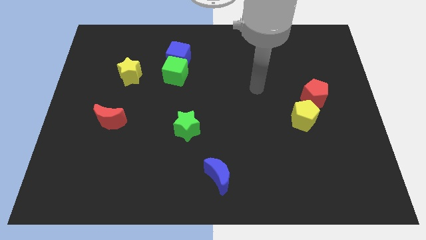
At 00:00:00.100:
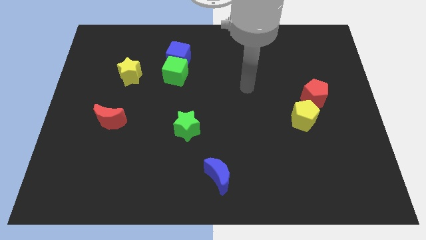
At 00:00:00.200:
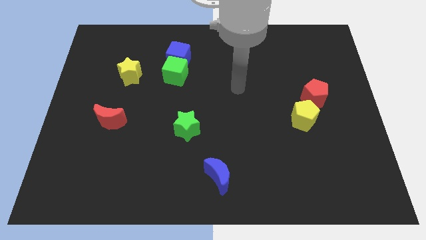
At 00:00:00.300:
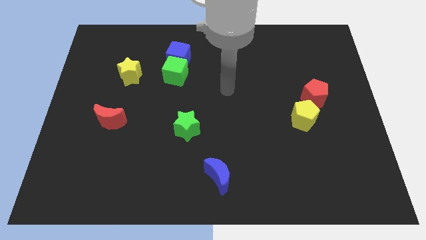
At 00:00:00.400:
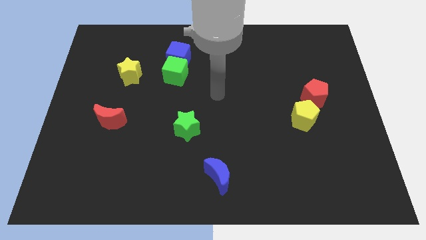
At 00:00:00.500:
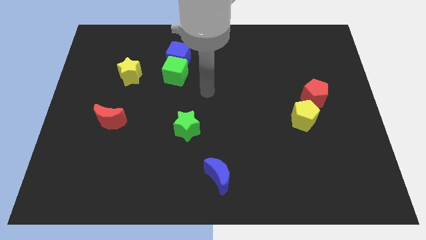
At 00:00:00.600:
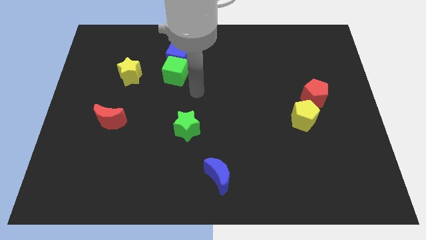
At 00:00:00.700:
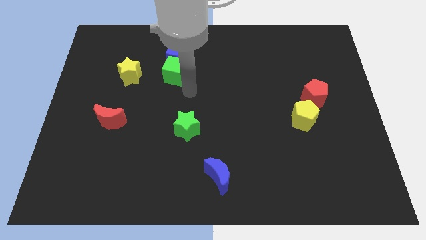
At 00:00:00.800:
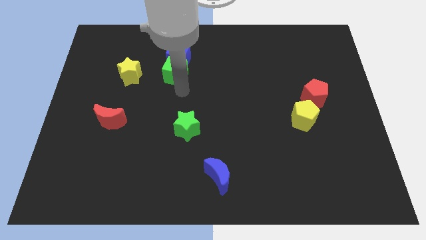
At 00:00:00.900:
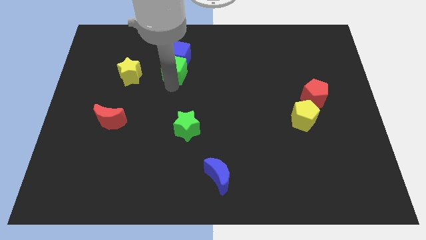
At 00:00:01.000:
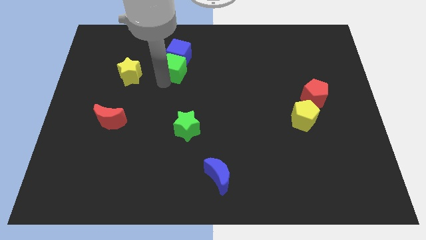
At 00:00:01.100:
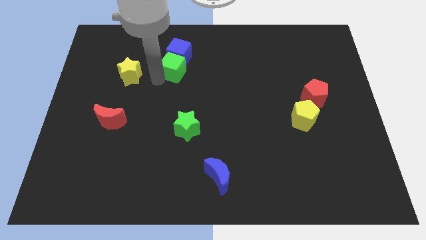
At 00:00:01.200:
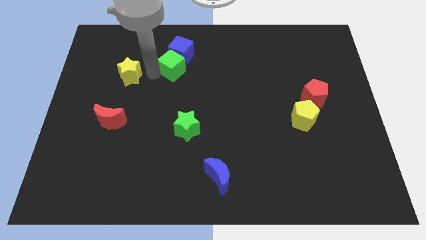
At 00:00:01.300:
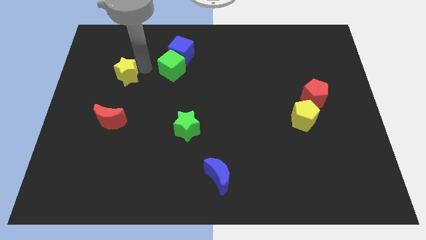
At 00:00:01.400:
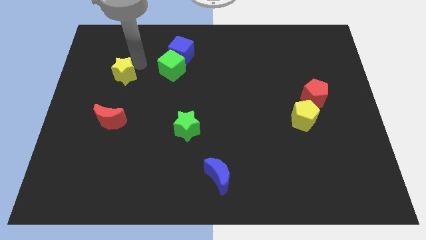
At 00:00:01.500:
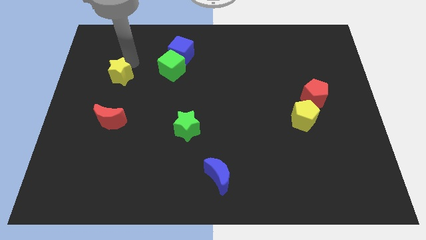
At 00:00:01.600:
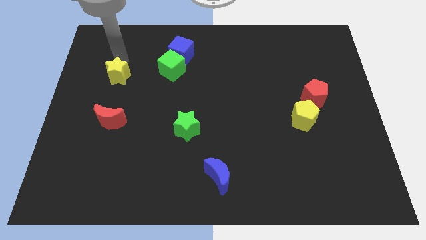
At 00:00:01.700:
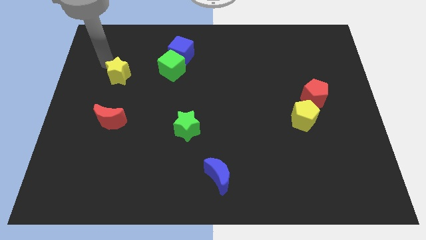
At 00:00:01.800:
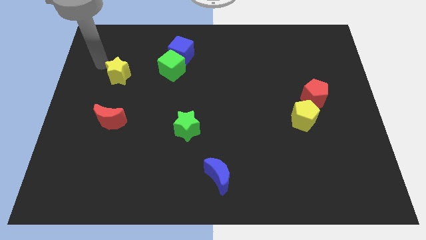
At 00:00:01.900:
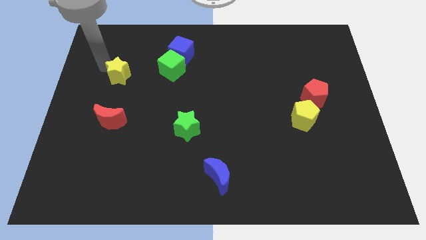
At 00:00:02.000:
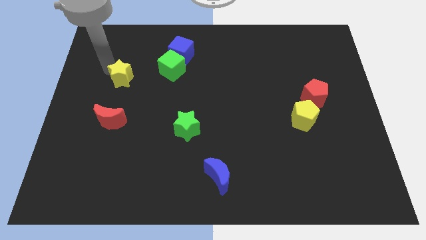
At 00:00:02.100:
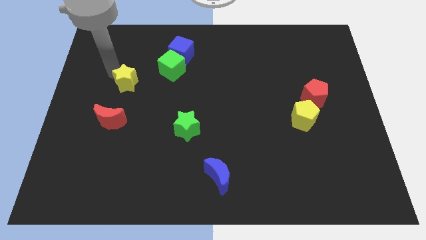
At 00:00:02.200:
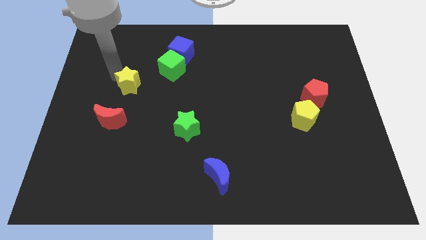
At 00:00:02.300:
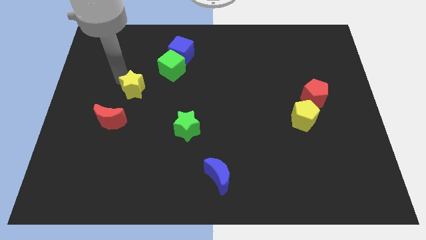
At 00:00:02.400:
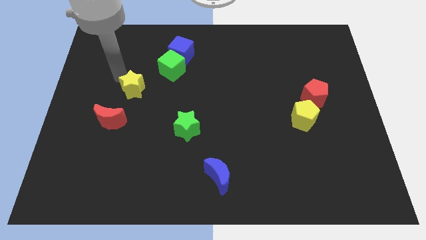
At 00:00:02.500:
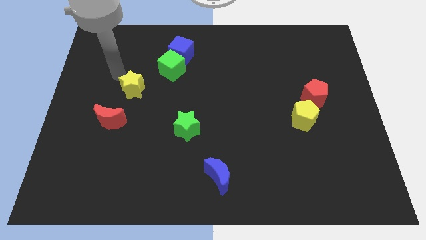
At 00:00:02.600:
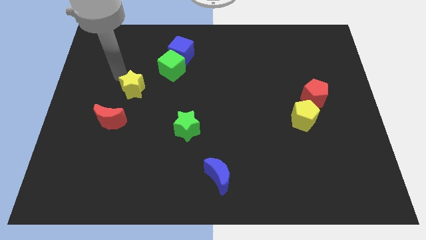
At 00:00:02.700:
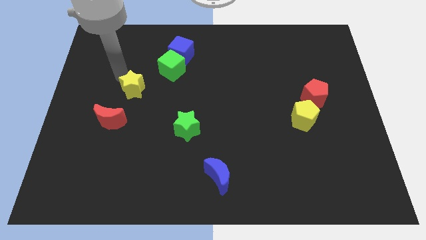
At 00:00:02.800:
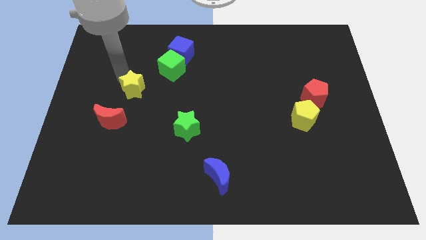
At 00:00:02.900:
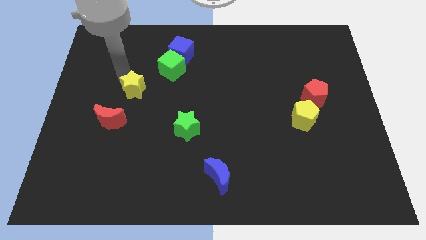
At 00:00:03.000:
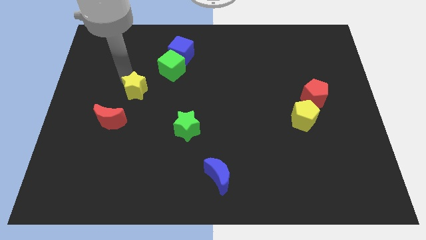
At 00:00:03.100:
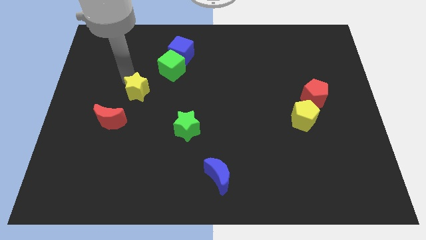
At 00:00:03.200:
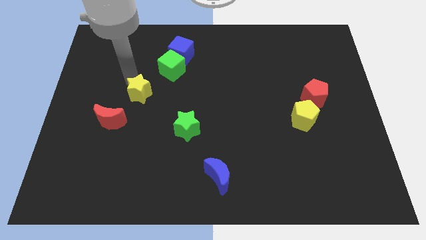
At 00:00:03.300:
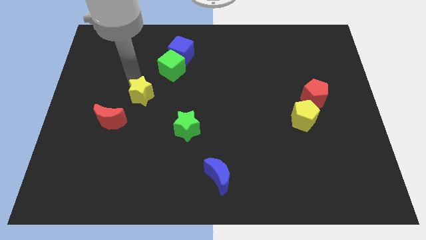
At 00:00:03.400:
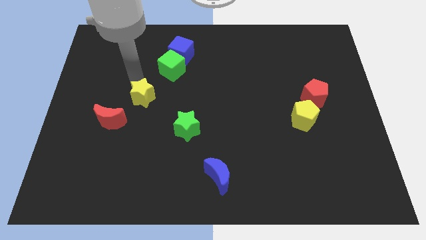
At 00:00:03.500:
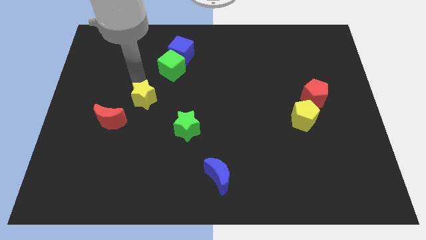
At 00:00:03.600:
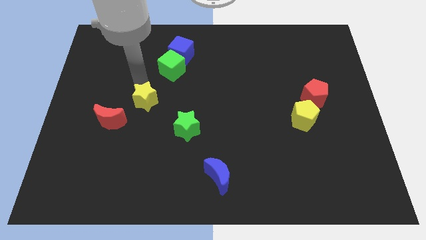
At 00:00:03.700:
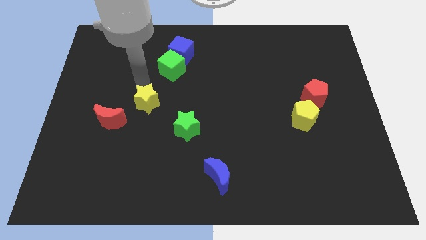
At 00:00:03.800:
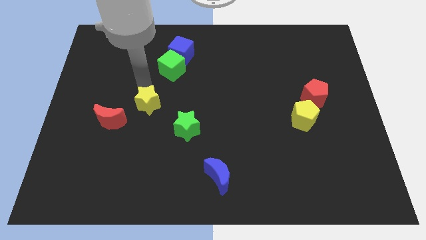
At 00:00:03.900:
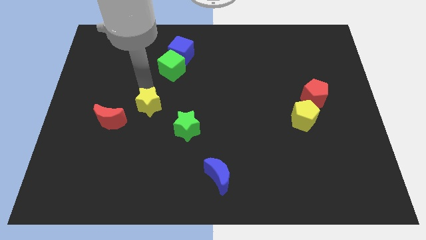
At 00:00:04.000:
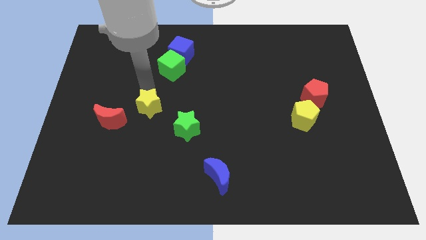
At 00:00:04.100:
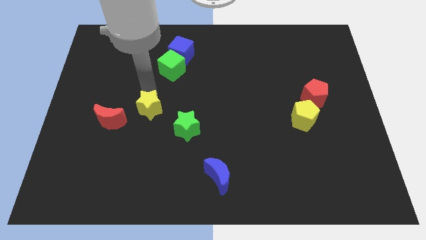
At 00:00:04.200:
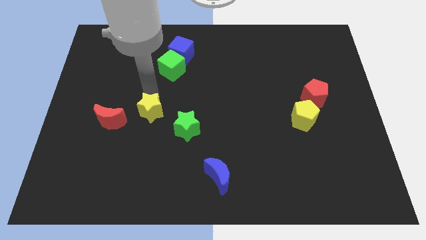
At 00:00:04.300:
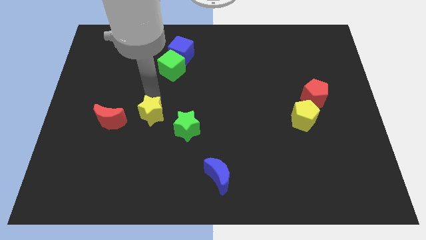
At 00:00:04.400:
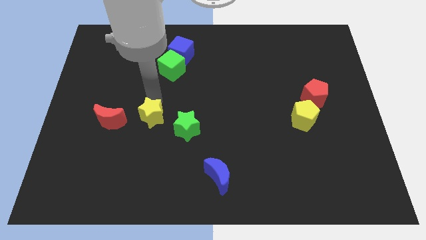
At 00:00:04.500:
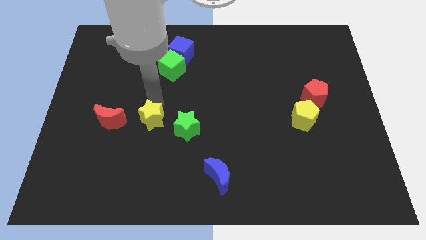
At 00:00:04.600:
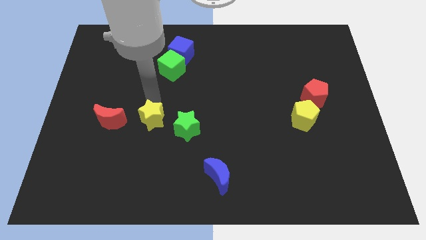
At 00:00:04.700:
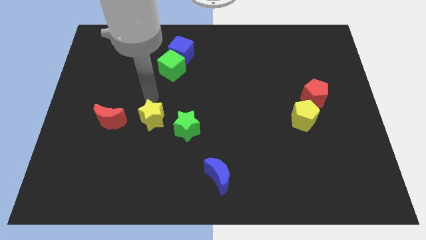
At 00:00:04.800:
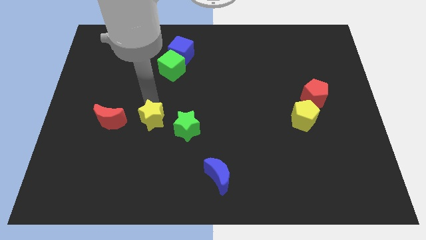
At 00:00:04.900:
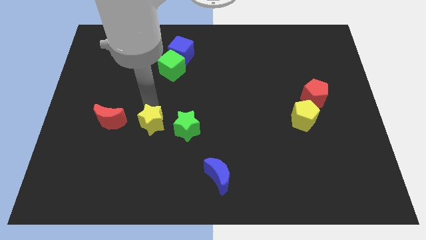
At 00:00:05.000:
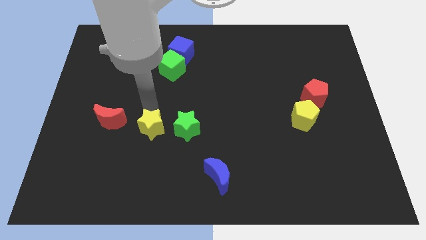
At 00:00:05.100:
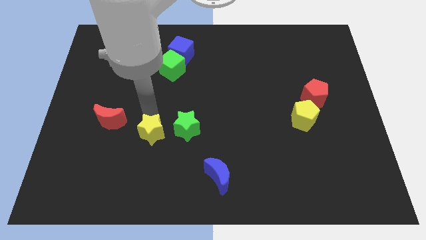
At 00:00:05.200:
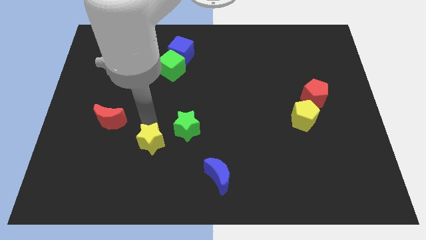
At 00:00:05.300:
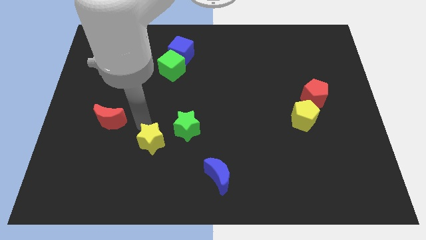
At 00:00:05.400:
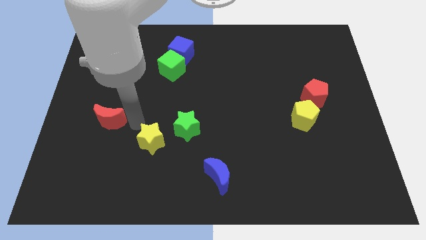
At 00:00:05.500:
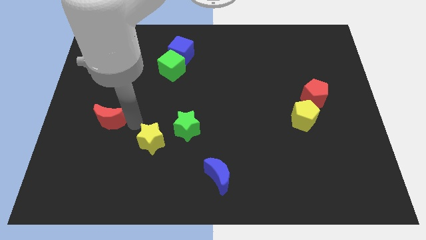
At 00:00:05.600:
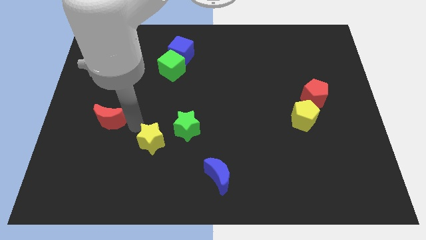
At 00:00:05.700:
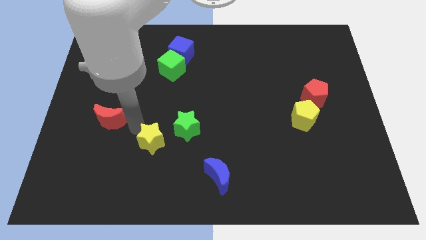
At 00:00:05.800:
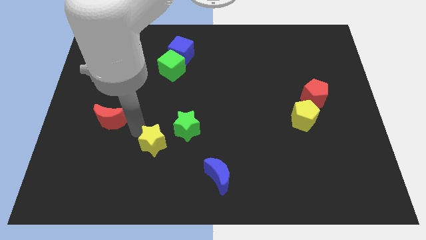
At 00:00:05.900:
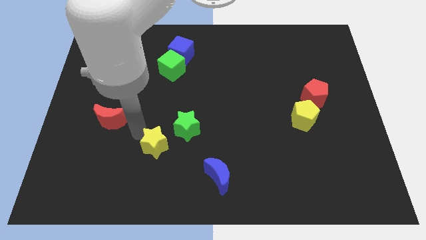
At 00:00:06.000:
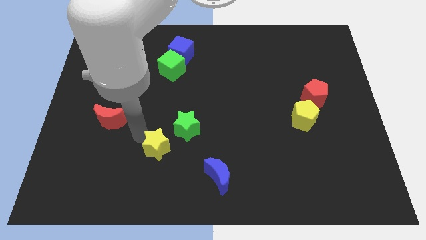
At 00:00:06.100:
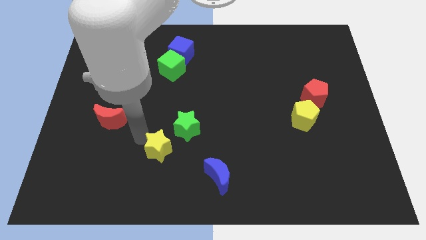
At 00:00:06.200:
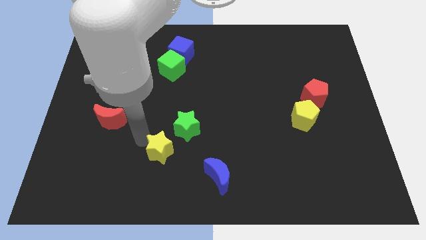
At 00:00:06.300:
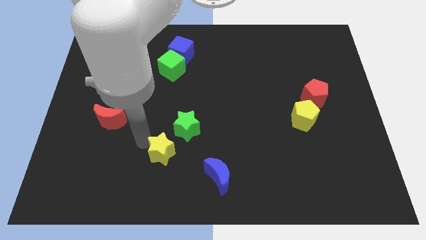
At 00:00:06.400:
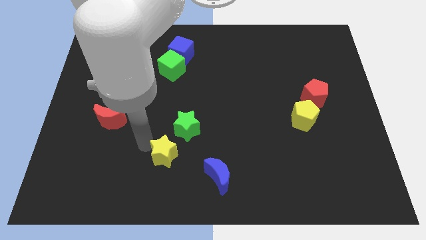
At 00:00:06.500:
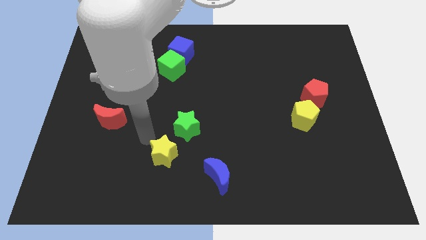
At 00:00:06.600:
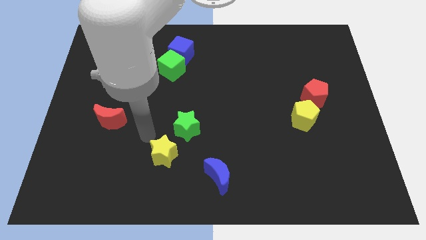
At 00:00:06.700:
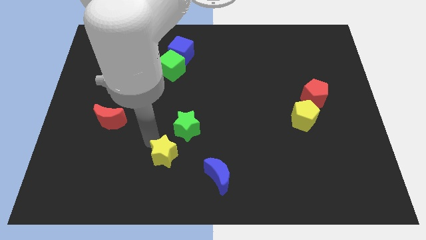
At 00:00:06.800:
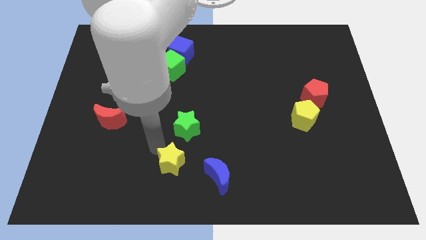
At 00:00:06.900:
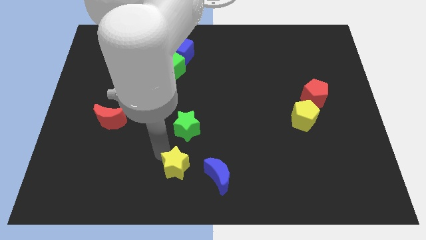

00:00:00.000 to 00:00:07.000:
slide the yellow star to the bottom side
